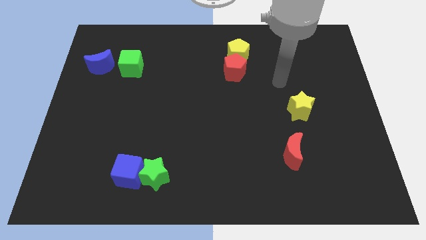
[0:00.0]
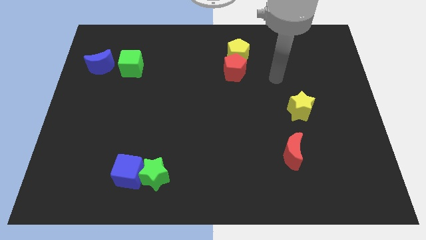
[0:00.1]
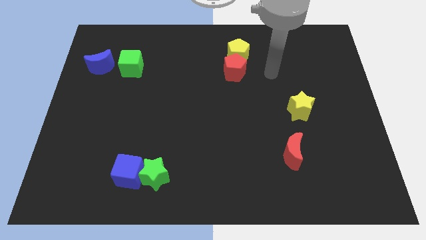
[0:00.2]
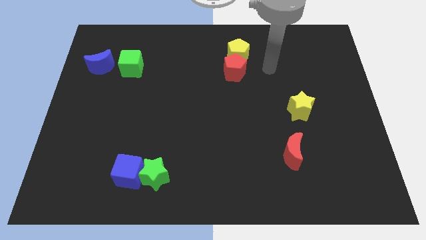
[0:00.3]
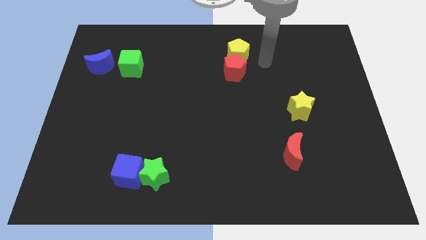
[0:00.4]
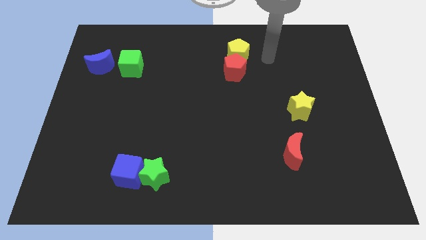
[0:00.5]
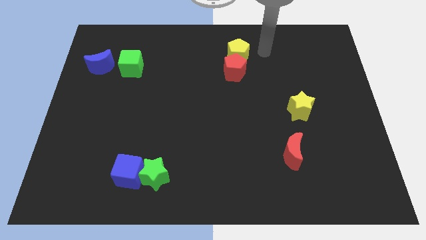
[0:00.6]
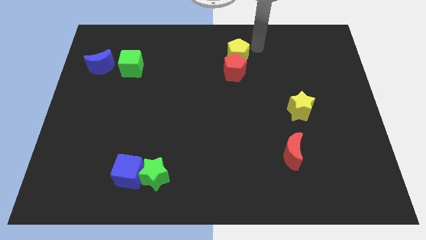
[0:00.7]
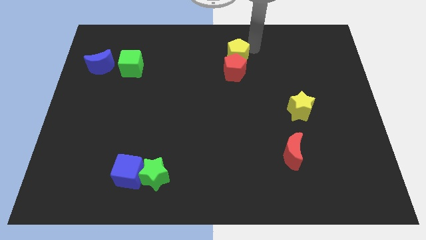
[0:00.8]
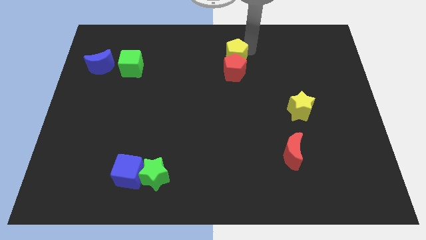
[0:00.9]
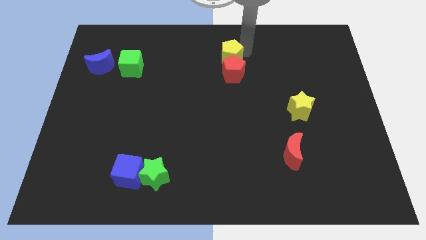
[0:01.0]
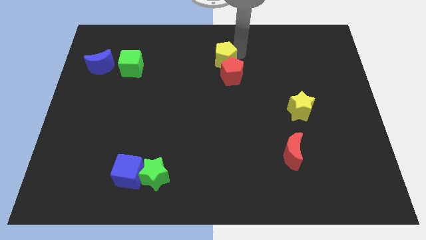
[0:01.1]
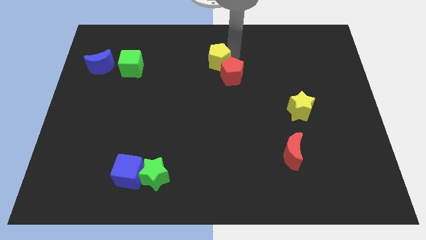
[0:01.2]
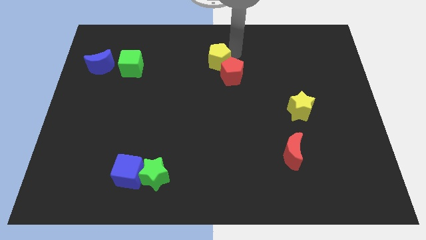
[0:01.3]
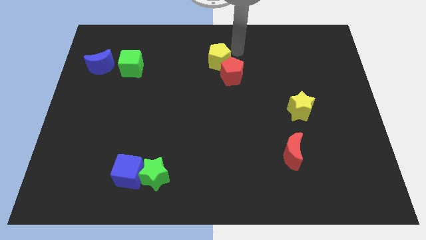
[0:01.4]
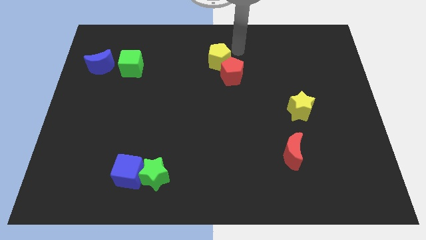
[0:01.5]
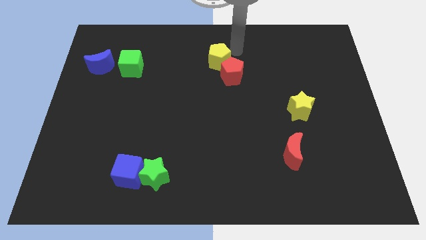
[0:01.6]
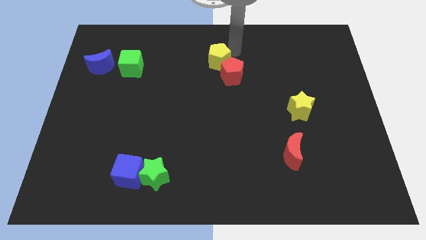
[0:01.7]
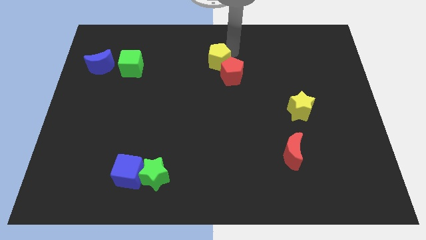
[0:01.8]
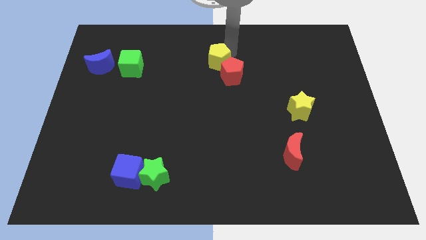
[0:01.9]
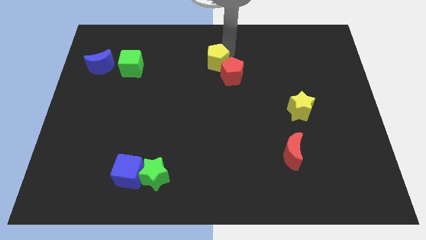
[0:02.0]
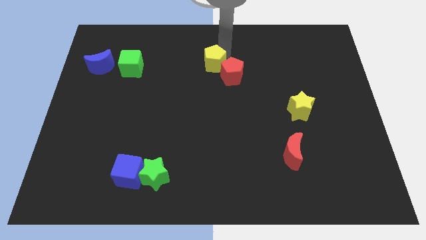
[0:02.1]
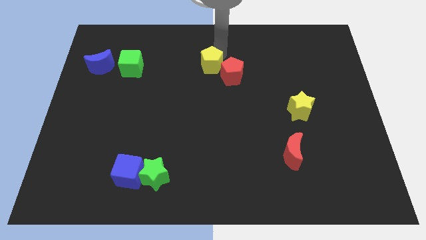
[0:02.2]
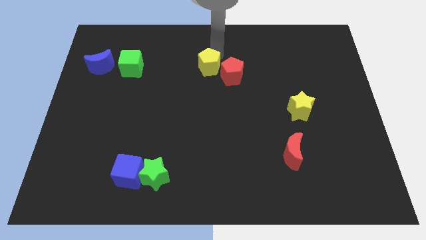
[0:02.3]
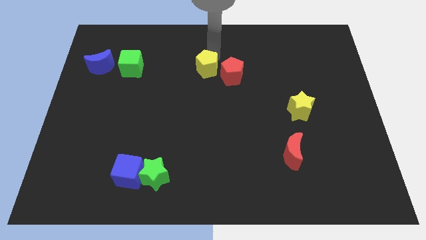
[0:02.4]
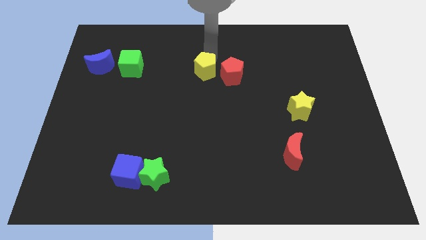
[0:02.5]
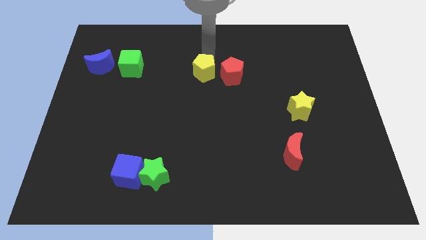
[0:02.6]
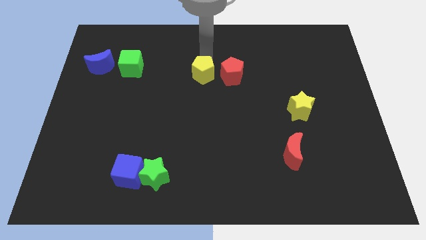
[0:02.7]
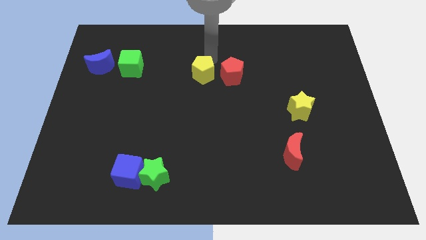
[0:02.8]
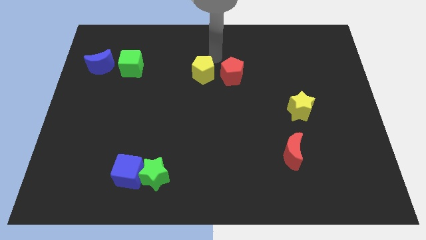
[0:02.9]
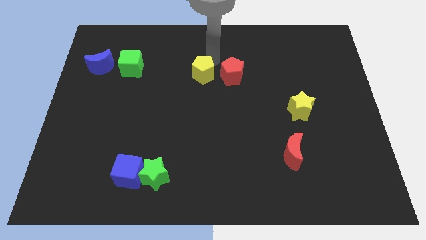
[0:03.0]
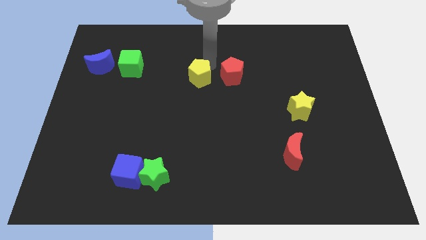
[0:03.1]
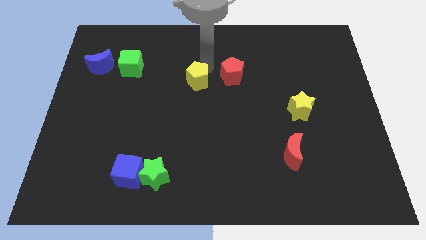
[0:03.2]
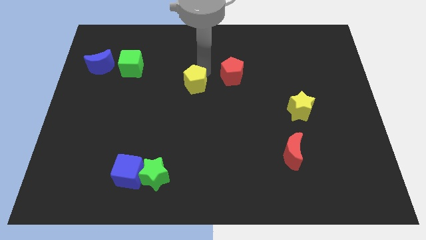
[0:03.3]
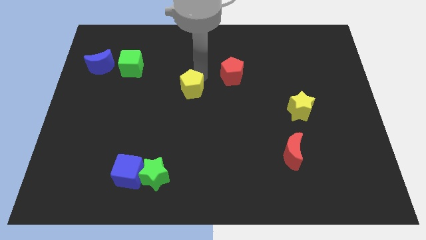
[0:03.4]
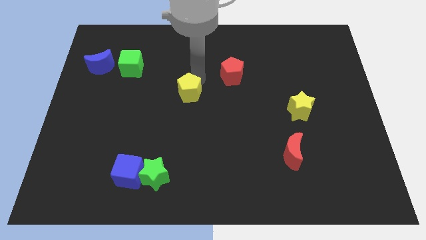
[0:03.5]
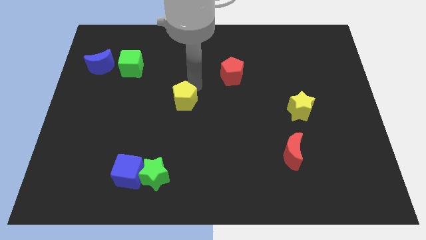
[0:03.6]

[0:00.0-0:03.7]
slide the yellow pentagon downwards and then to the left

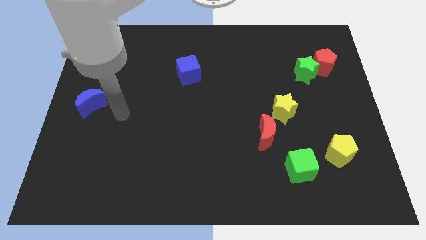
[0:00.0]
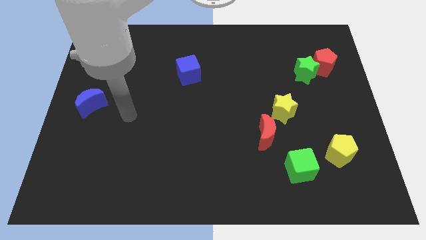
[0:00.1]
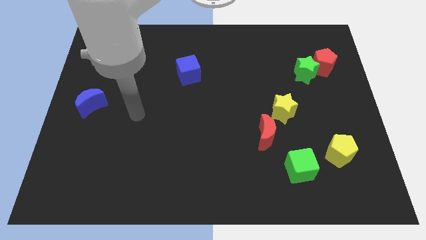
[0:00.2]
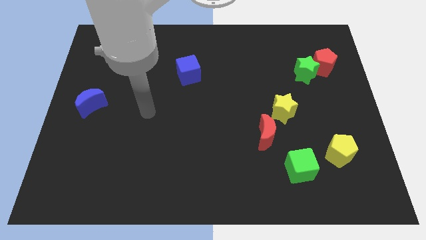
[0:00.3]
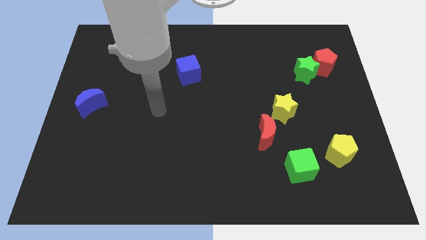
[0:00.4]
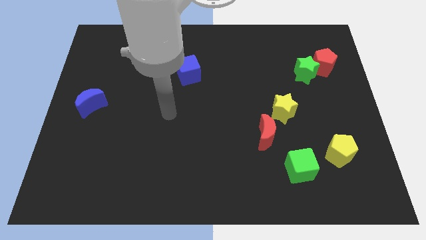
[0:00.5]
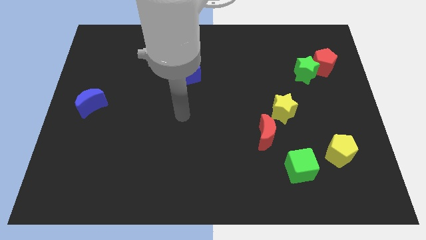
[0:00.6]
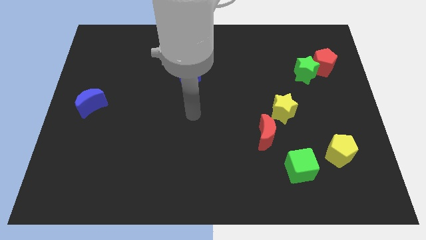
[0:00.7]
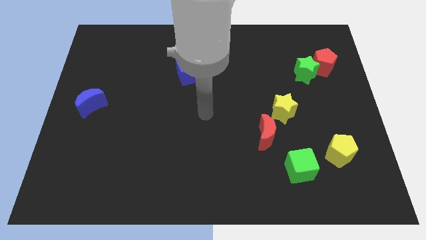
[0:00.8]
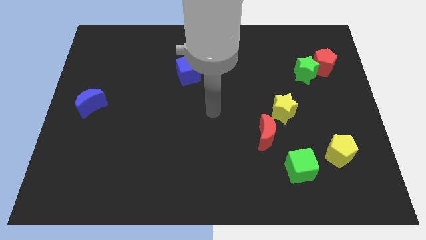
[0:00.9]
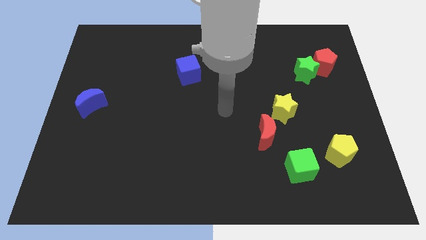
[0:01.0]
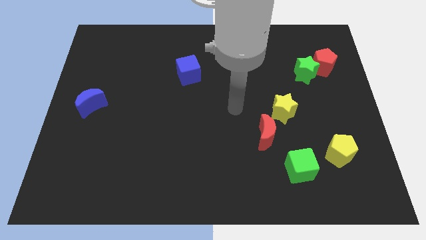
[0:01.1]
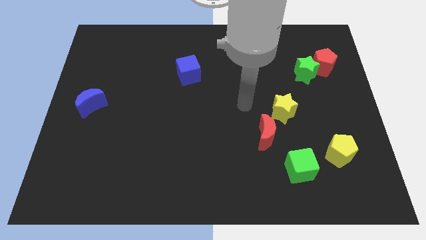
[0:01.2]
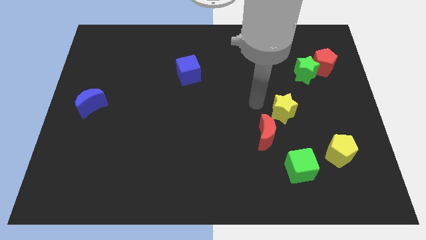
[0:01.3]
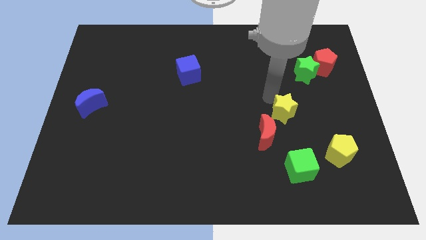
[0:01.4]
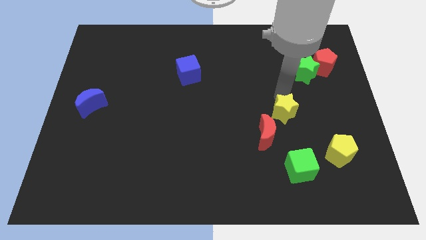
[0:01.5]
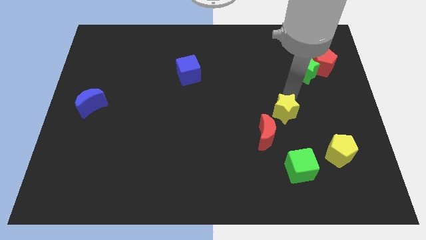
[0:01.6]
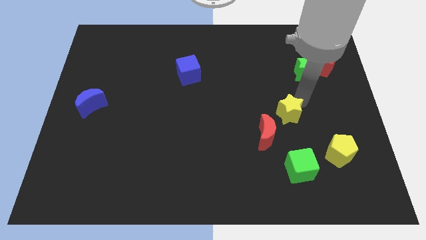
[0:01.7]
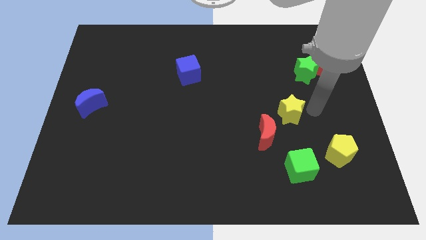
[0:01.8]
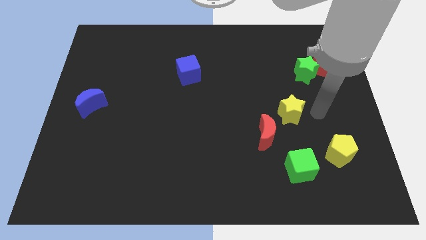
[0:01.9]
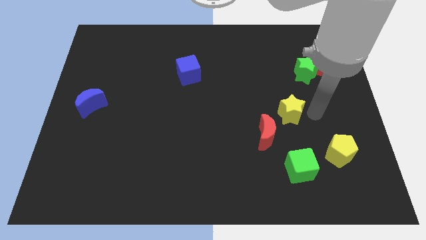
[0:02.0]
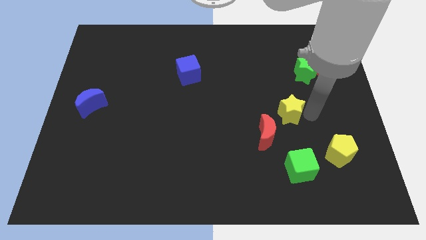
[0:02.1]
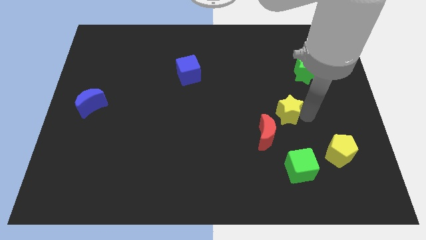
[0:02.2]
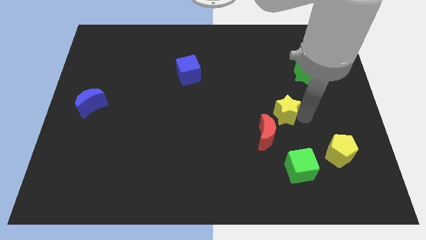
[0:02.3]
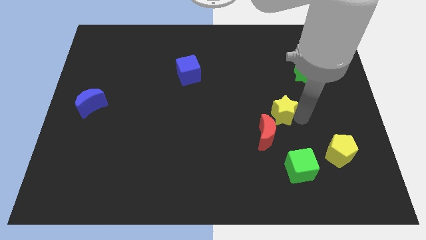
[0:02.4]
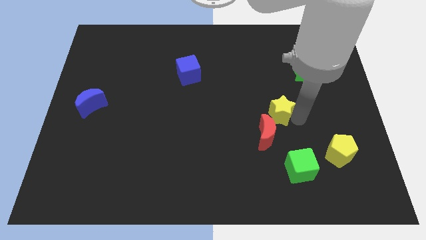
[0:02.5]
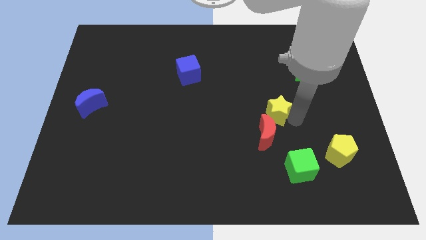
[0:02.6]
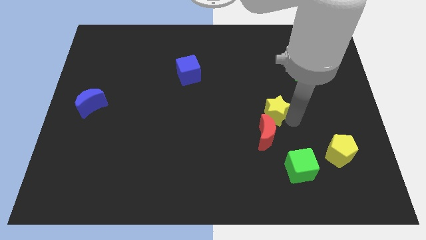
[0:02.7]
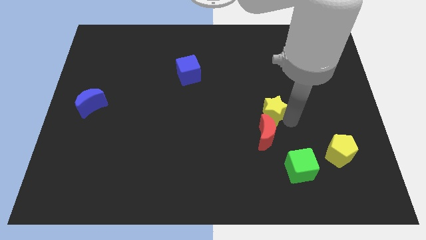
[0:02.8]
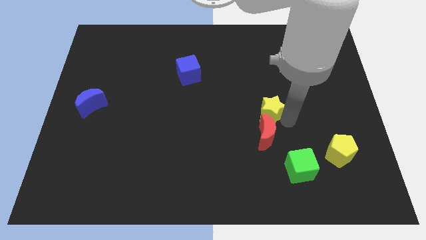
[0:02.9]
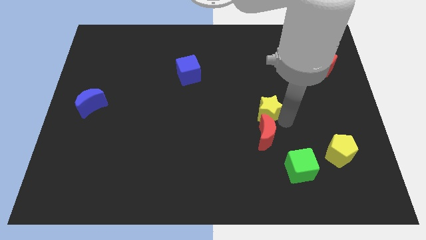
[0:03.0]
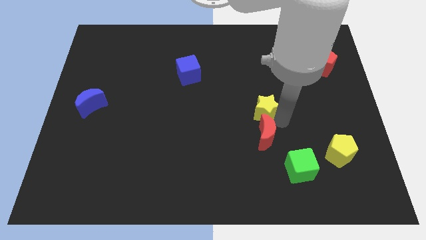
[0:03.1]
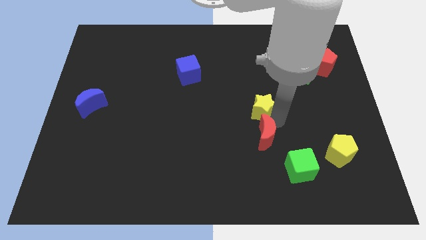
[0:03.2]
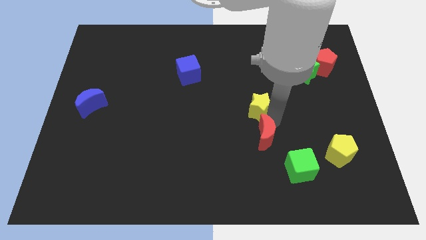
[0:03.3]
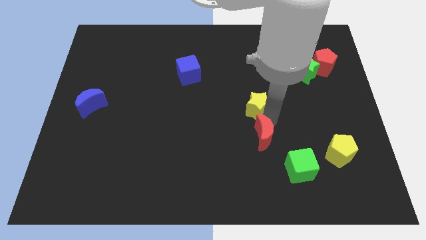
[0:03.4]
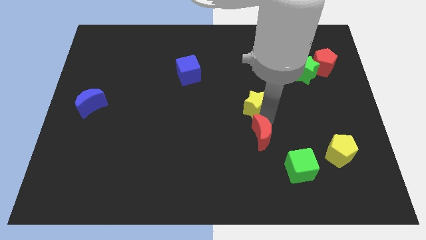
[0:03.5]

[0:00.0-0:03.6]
slide the yellow star to the left a bit

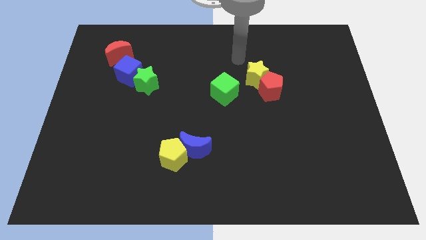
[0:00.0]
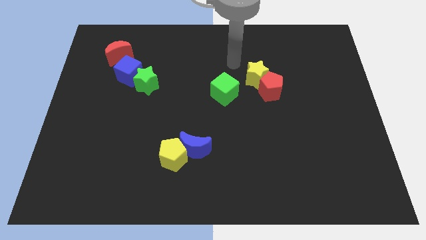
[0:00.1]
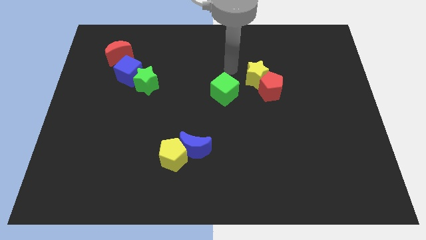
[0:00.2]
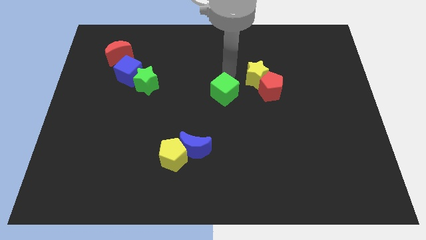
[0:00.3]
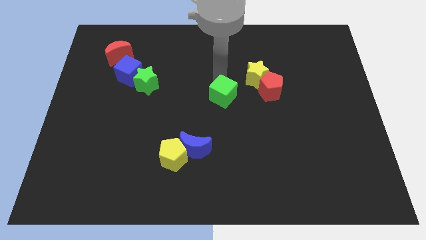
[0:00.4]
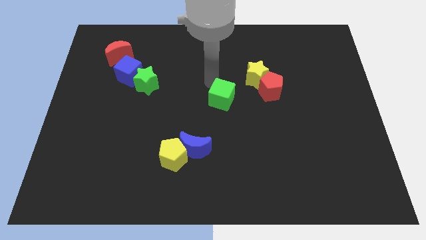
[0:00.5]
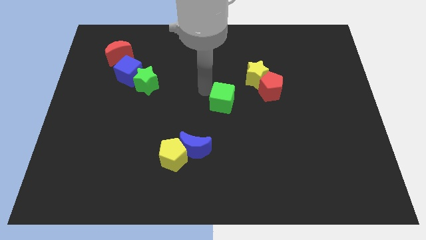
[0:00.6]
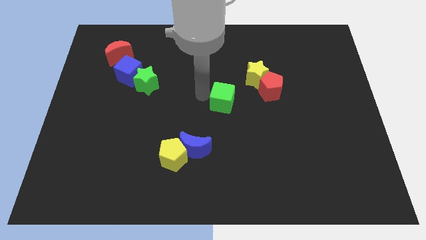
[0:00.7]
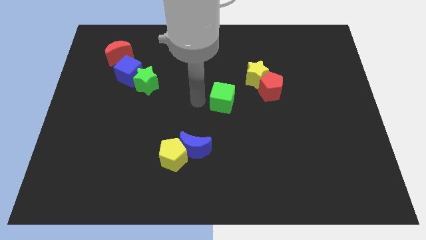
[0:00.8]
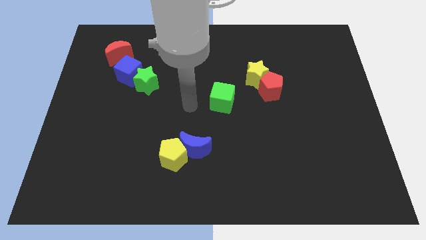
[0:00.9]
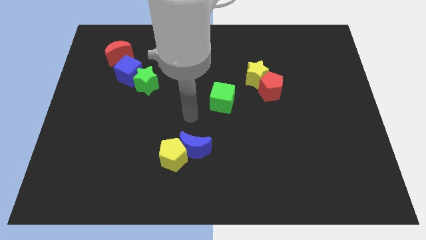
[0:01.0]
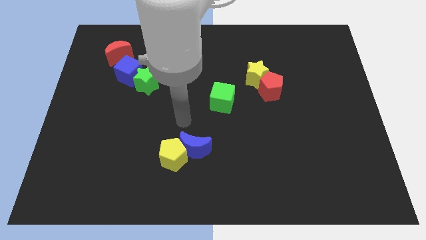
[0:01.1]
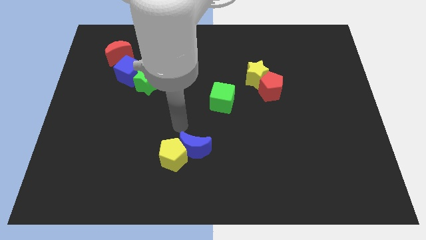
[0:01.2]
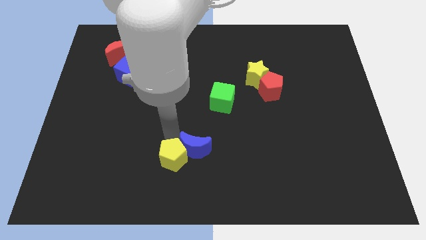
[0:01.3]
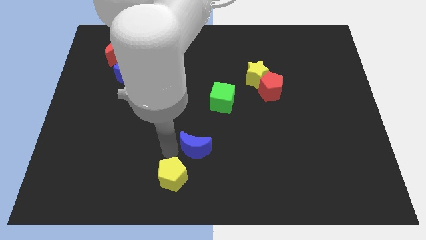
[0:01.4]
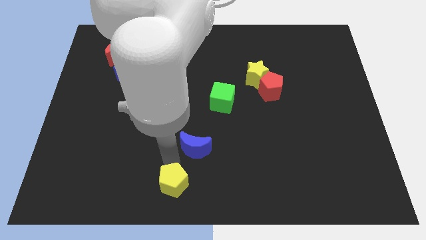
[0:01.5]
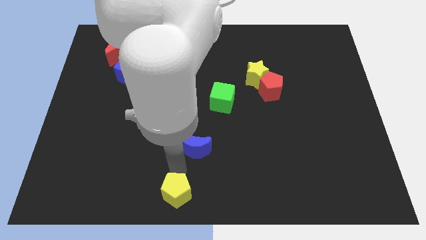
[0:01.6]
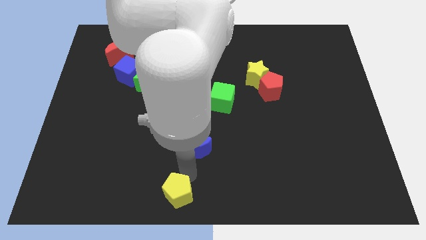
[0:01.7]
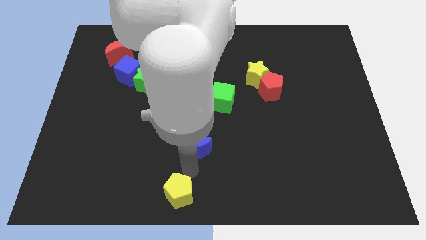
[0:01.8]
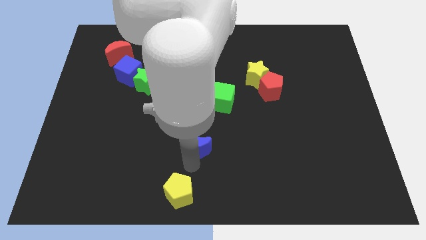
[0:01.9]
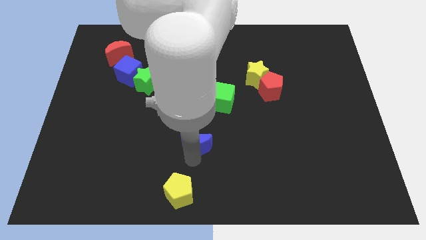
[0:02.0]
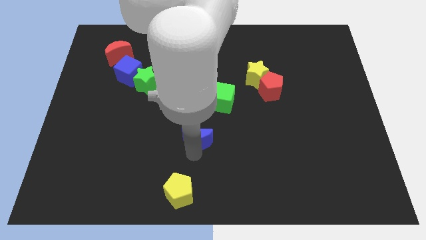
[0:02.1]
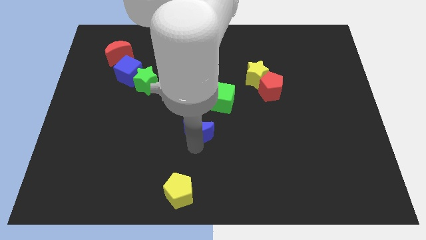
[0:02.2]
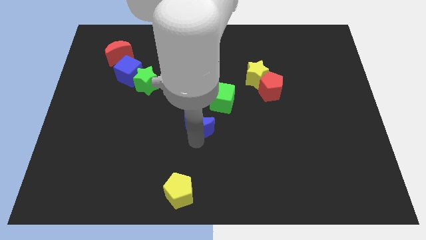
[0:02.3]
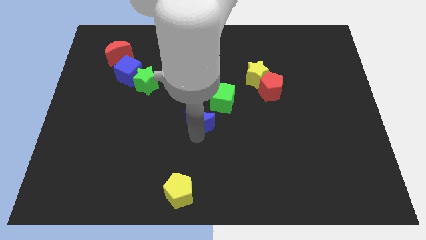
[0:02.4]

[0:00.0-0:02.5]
move the blue moon upwards a little bit
